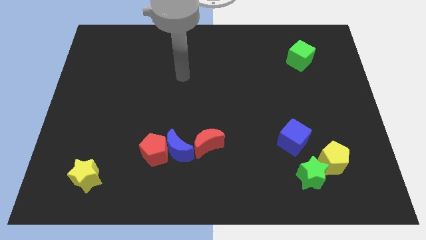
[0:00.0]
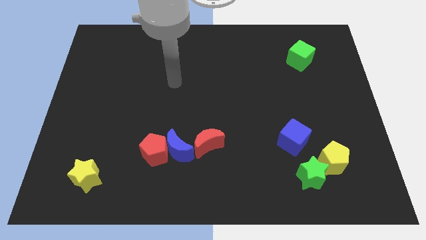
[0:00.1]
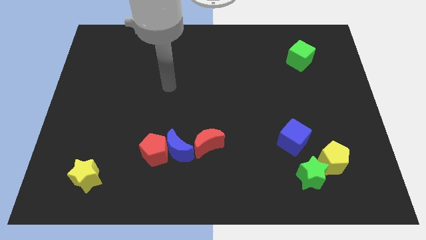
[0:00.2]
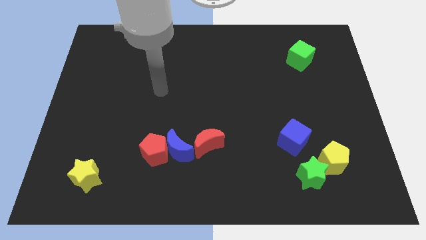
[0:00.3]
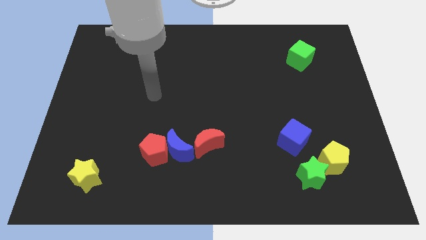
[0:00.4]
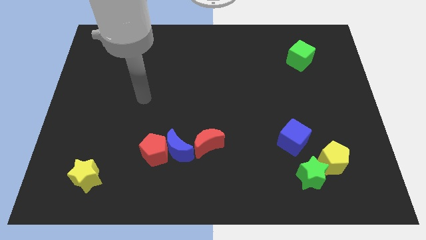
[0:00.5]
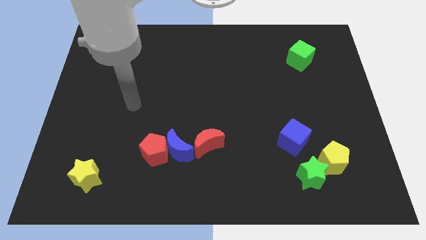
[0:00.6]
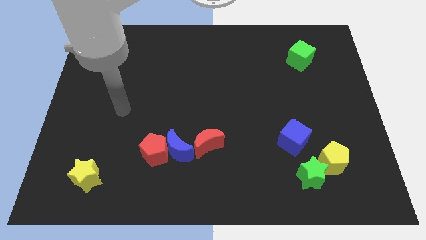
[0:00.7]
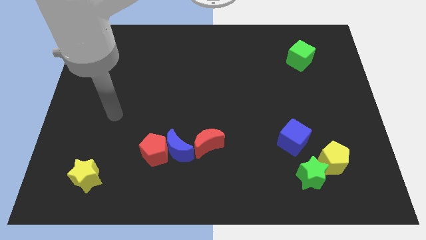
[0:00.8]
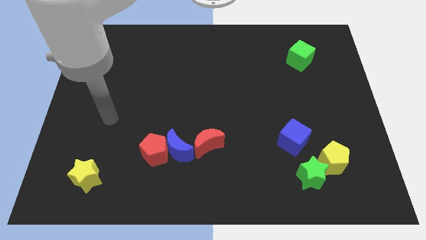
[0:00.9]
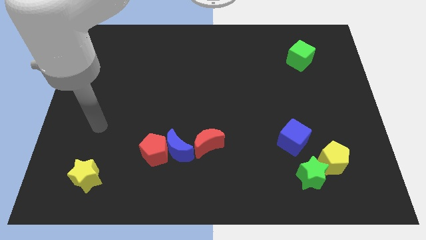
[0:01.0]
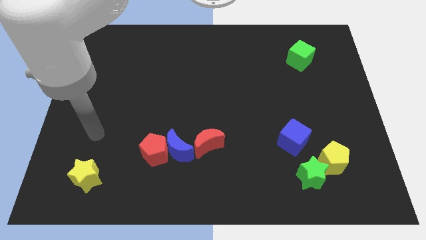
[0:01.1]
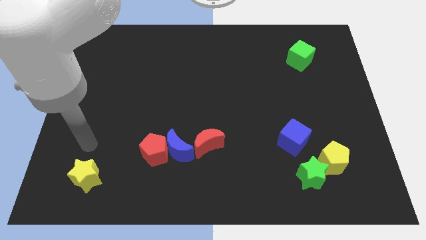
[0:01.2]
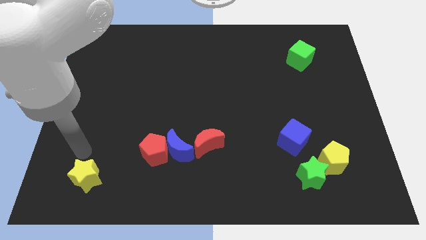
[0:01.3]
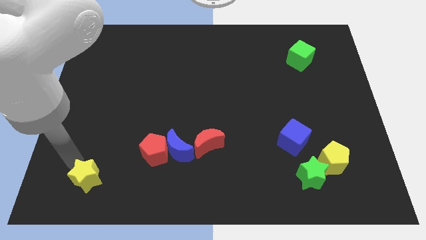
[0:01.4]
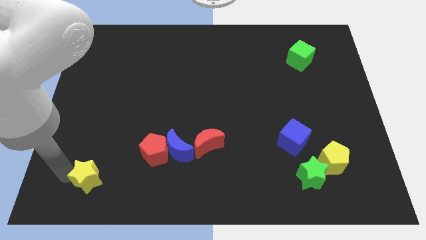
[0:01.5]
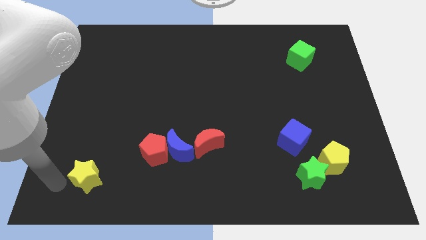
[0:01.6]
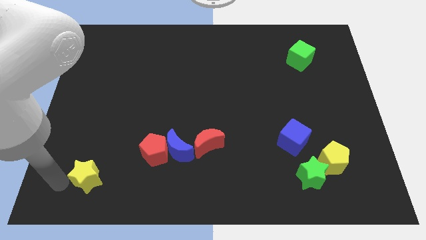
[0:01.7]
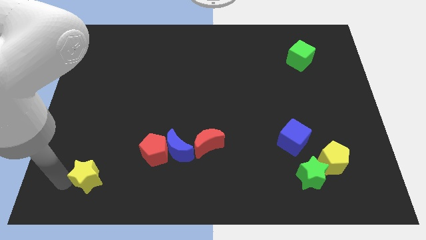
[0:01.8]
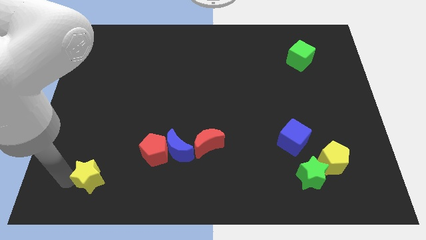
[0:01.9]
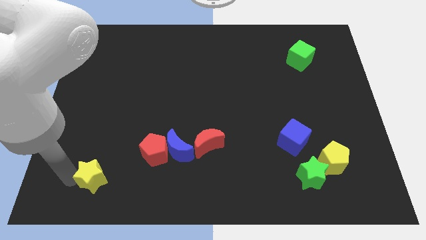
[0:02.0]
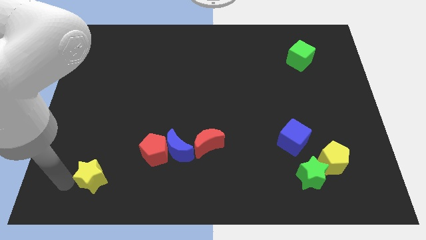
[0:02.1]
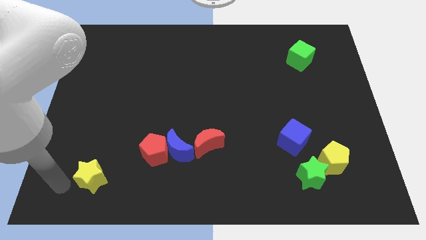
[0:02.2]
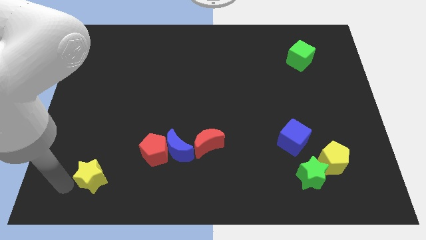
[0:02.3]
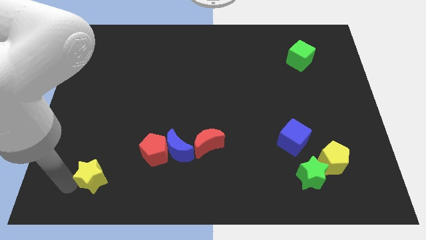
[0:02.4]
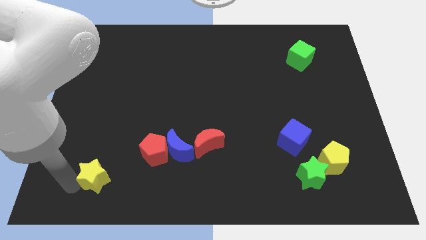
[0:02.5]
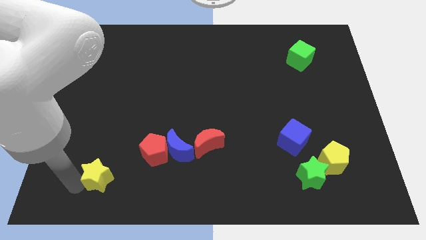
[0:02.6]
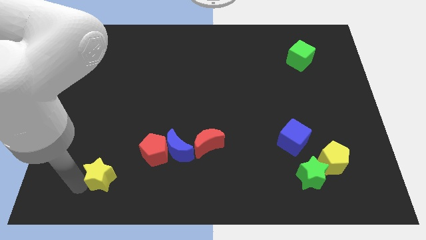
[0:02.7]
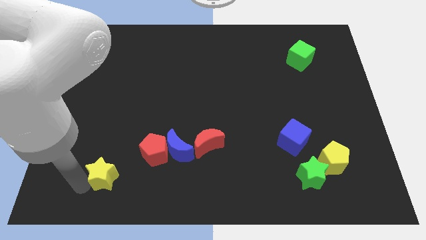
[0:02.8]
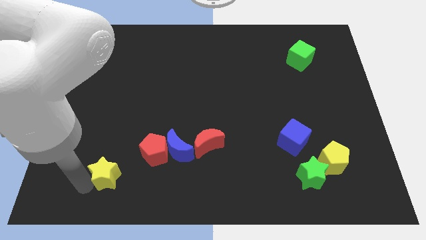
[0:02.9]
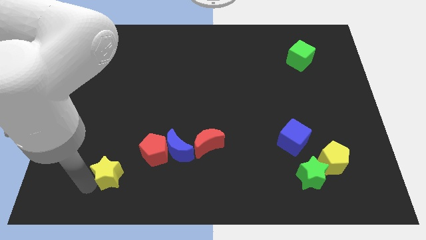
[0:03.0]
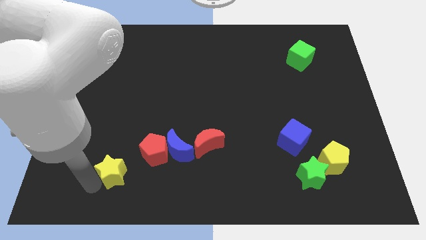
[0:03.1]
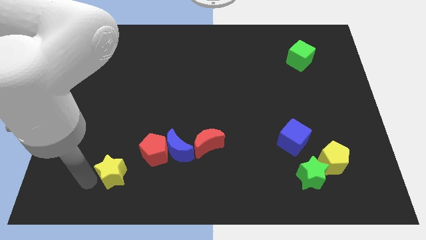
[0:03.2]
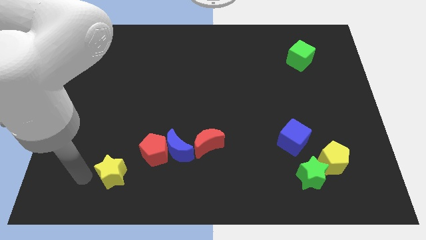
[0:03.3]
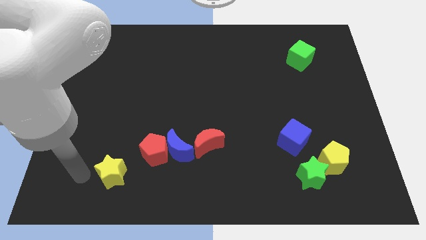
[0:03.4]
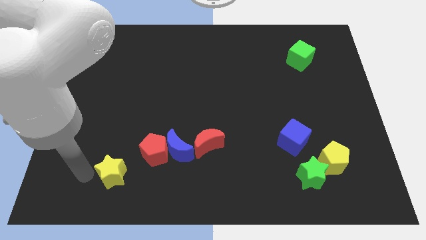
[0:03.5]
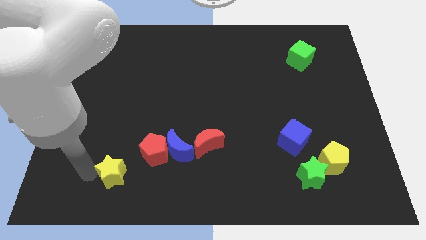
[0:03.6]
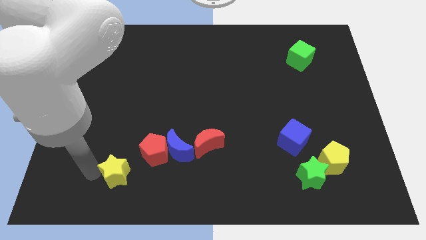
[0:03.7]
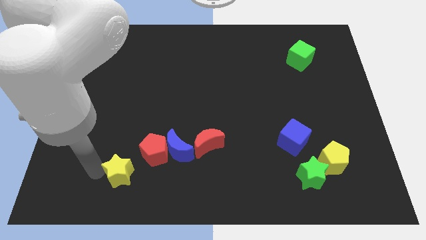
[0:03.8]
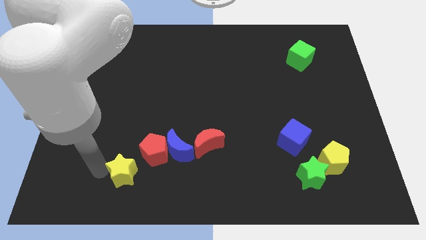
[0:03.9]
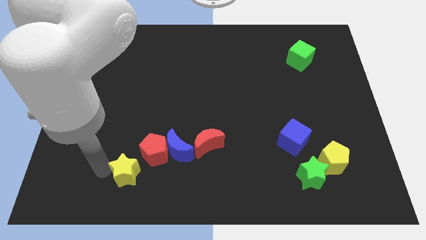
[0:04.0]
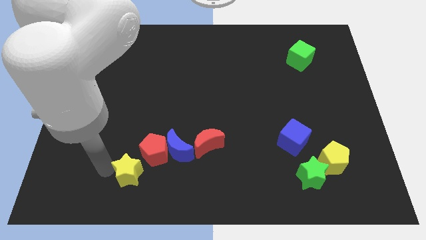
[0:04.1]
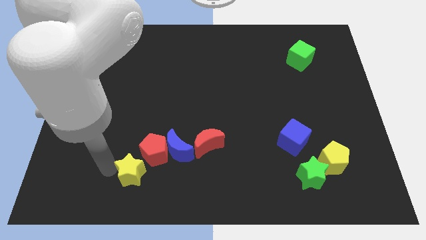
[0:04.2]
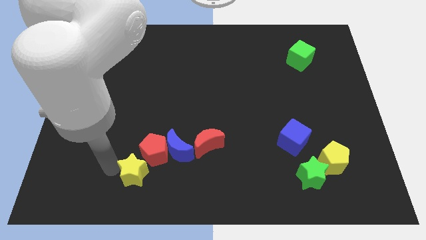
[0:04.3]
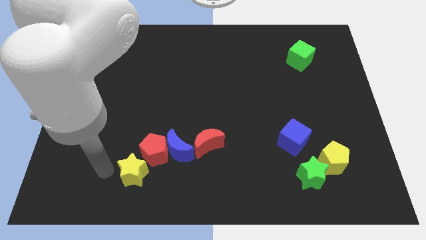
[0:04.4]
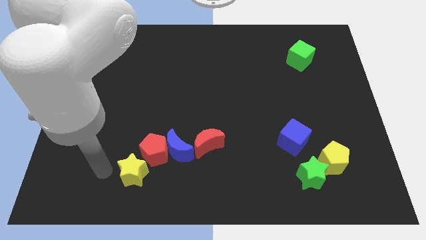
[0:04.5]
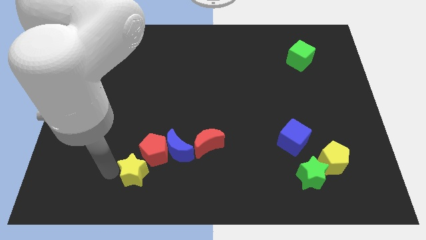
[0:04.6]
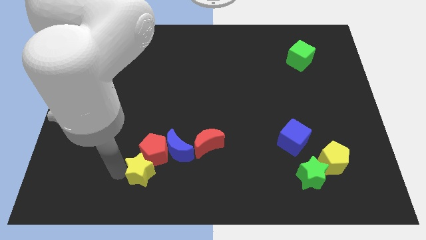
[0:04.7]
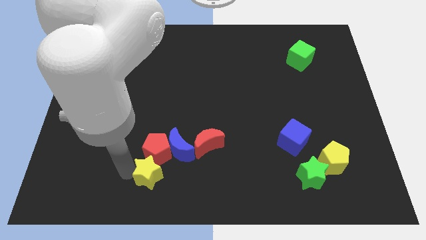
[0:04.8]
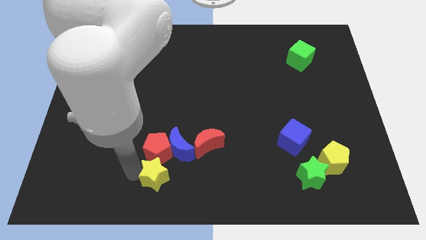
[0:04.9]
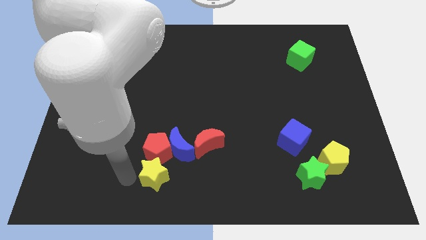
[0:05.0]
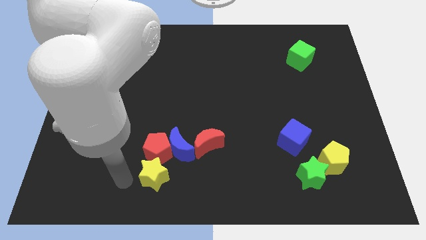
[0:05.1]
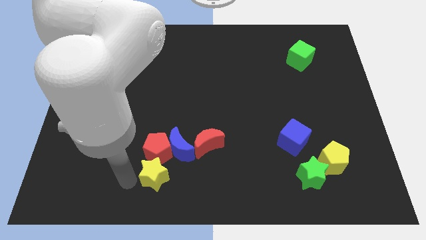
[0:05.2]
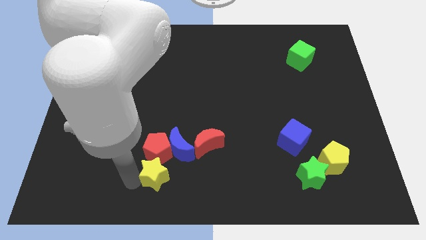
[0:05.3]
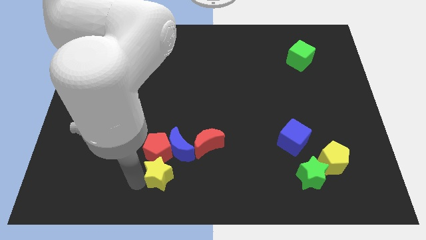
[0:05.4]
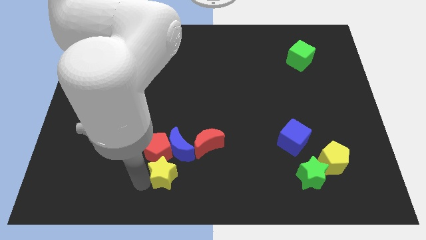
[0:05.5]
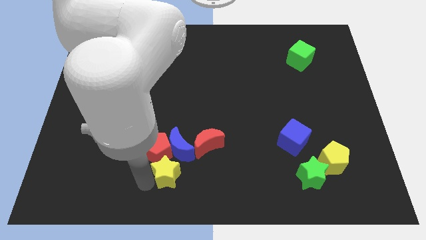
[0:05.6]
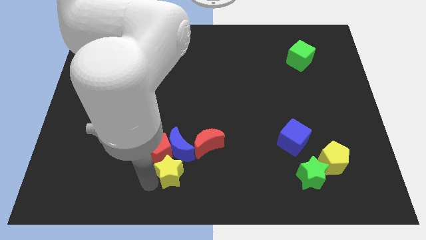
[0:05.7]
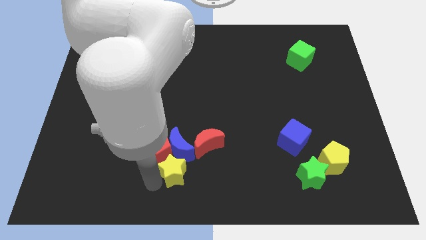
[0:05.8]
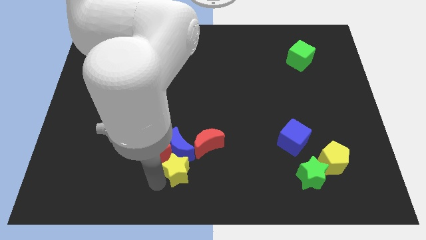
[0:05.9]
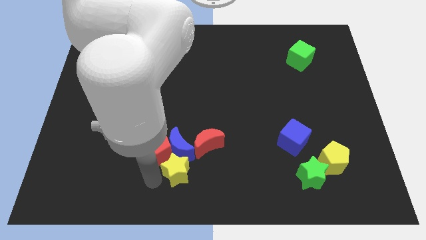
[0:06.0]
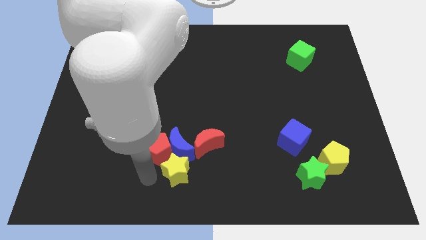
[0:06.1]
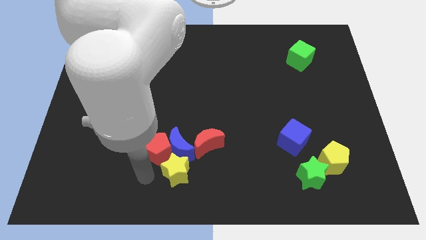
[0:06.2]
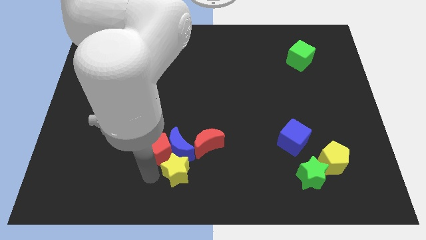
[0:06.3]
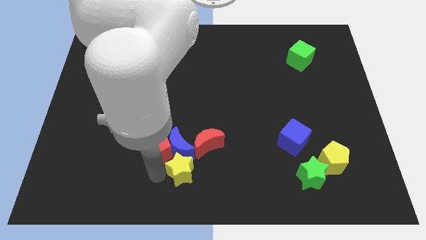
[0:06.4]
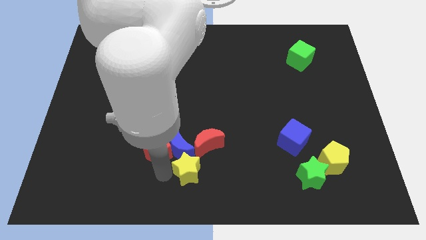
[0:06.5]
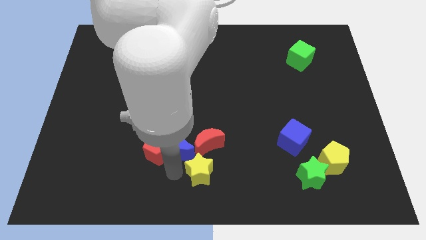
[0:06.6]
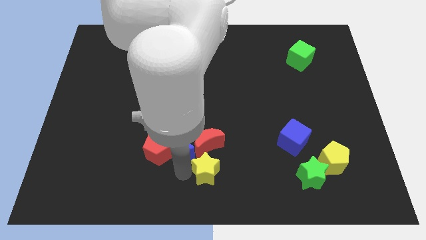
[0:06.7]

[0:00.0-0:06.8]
move the yellow star diagonally down and to the right of the red moon
